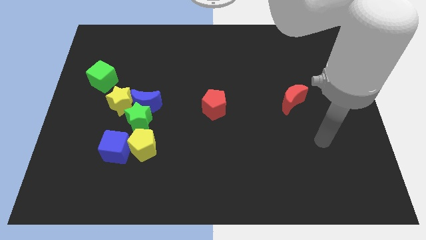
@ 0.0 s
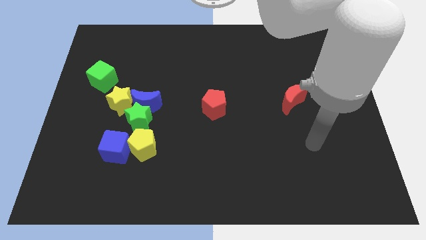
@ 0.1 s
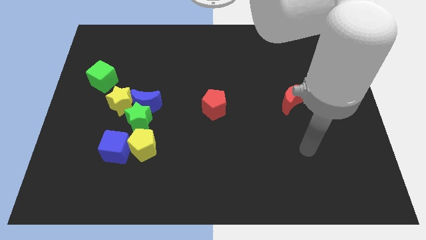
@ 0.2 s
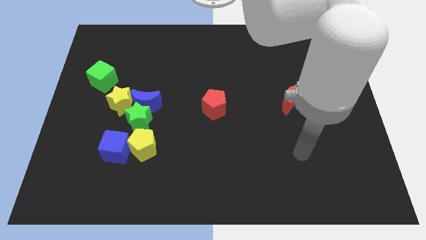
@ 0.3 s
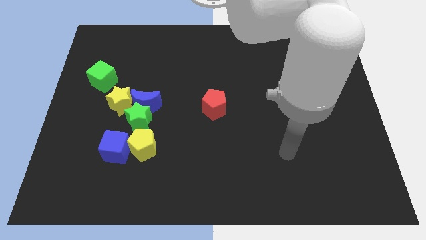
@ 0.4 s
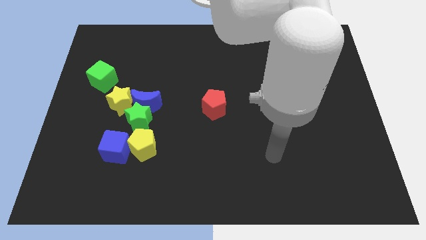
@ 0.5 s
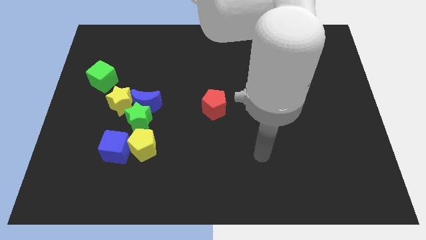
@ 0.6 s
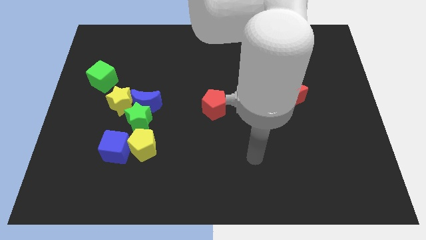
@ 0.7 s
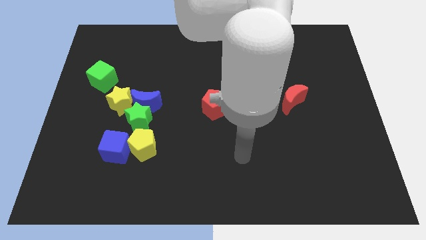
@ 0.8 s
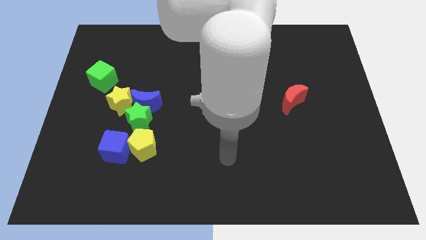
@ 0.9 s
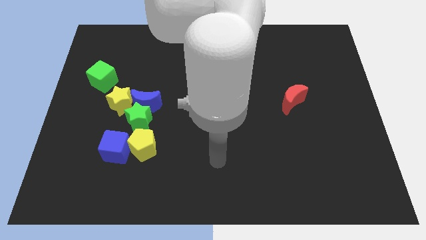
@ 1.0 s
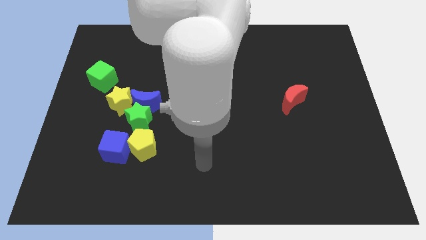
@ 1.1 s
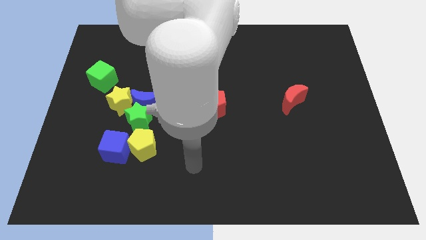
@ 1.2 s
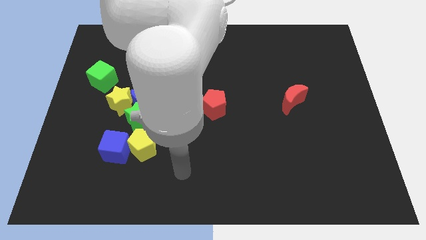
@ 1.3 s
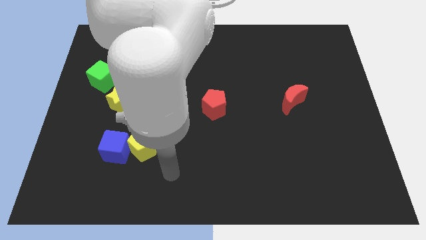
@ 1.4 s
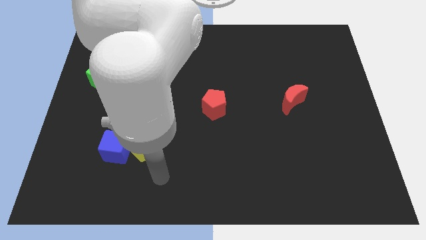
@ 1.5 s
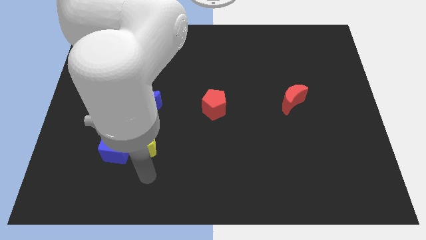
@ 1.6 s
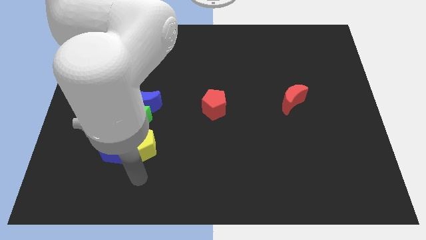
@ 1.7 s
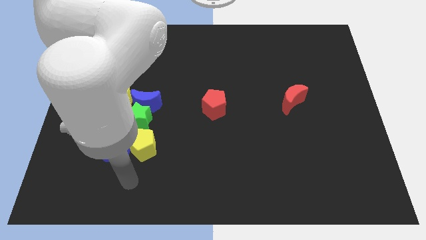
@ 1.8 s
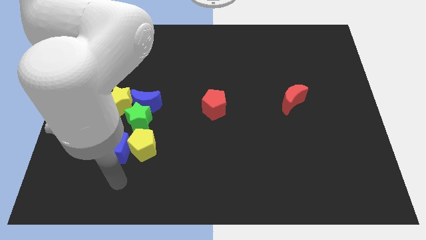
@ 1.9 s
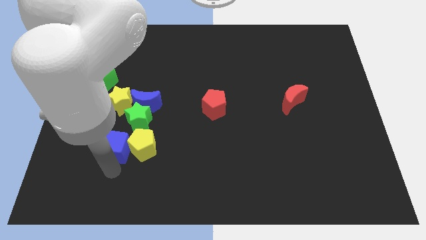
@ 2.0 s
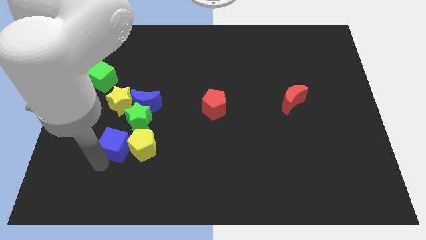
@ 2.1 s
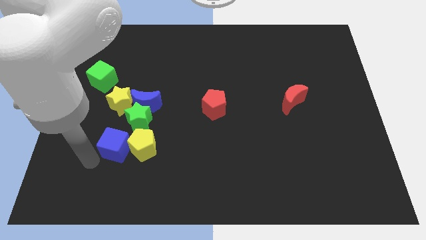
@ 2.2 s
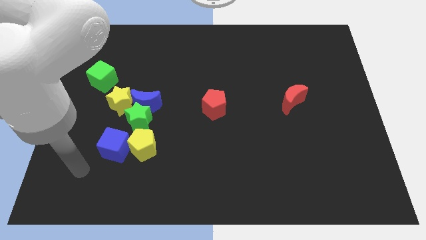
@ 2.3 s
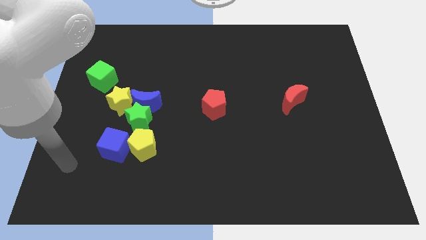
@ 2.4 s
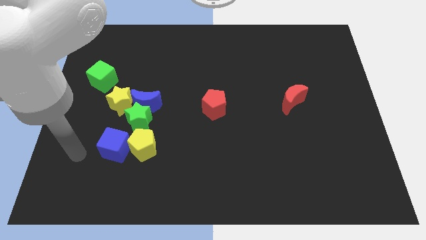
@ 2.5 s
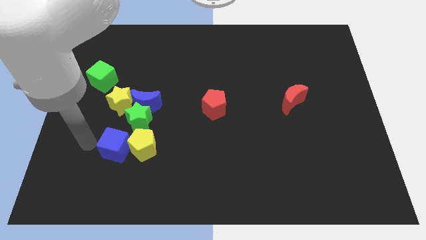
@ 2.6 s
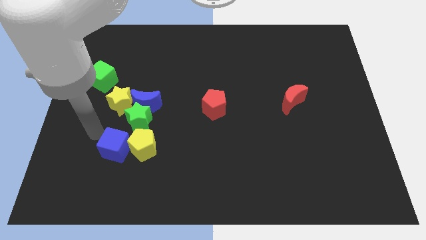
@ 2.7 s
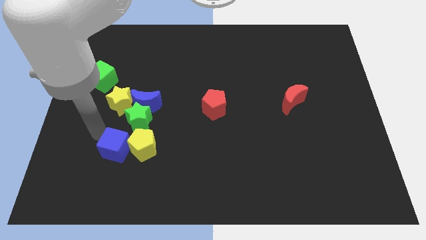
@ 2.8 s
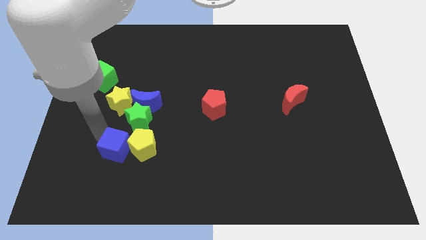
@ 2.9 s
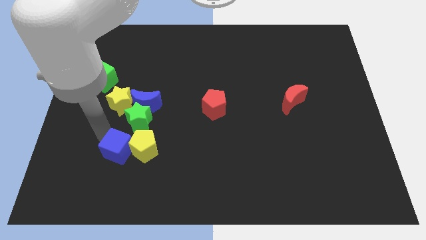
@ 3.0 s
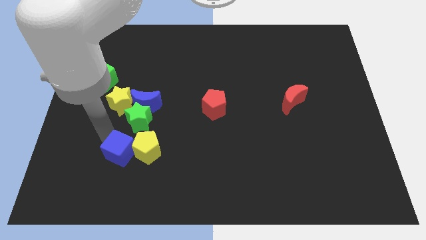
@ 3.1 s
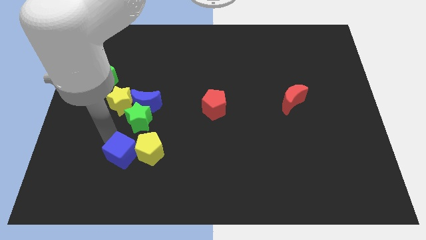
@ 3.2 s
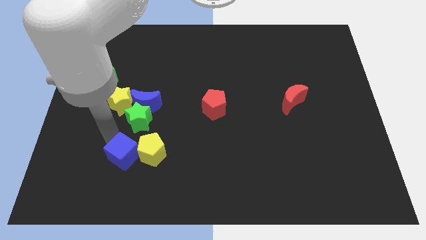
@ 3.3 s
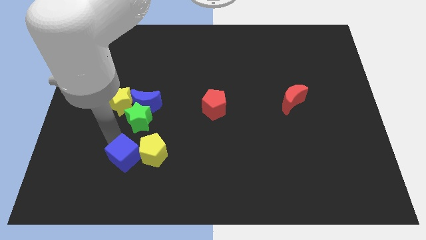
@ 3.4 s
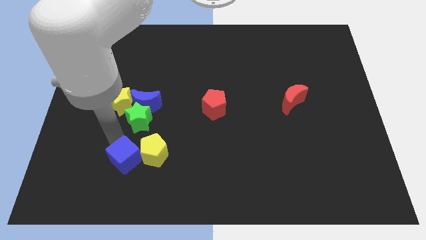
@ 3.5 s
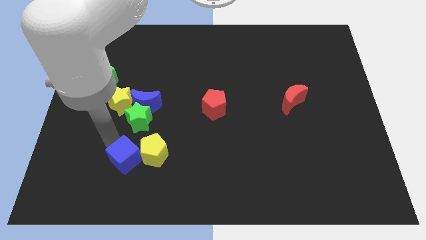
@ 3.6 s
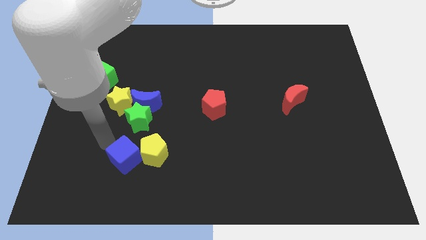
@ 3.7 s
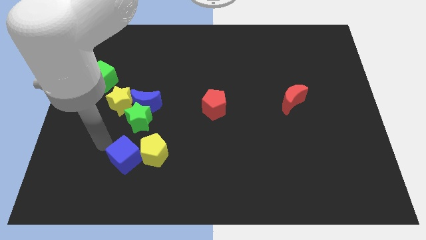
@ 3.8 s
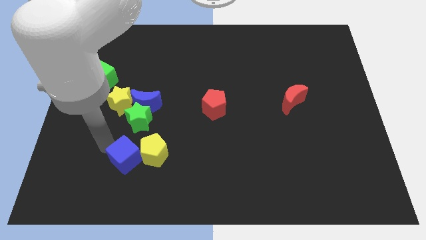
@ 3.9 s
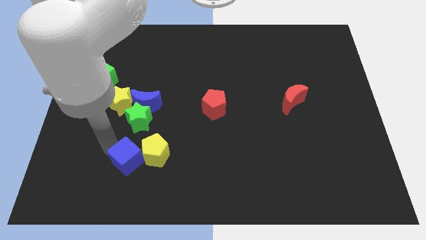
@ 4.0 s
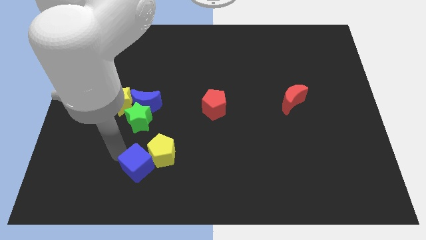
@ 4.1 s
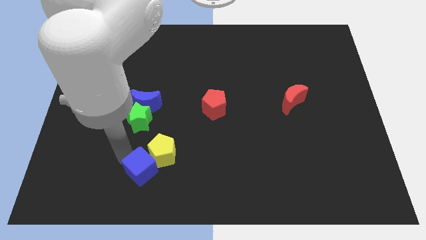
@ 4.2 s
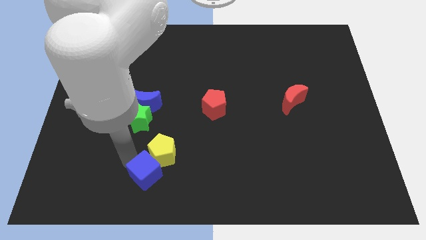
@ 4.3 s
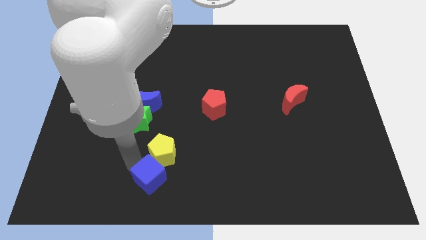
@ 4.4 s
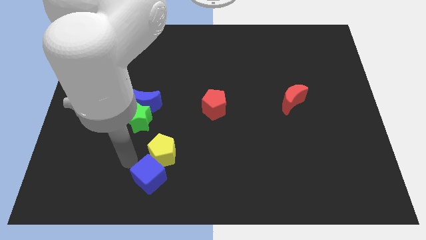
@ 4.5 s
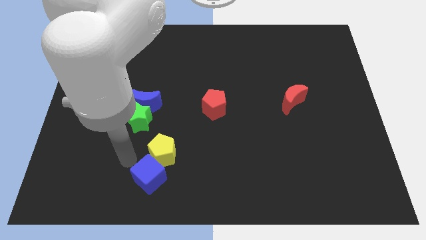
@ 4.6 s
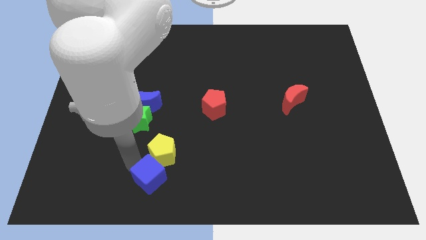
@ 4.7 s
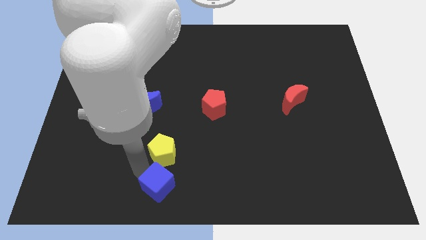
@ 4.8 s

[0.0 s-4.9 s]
push the blue cube to the bottom side

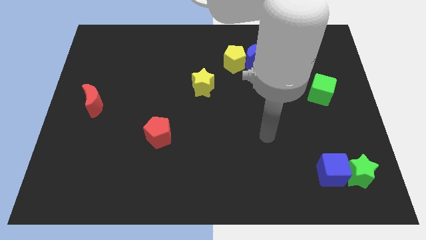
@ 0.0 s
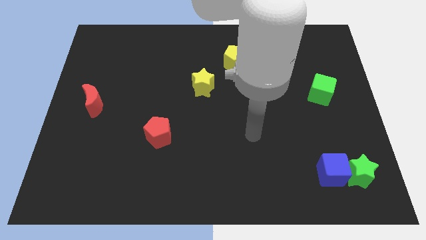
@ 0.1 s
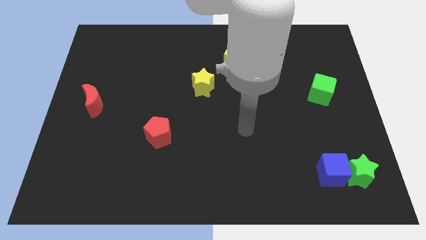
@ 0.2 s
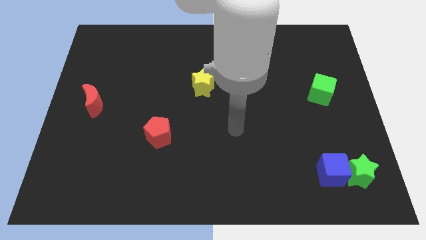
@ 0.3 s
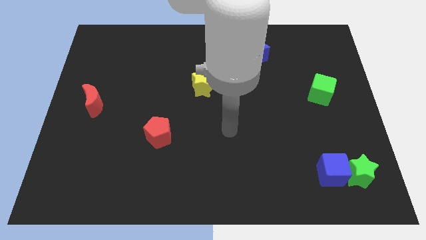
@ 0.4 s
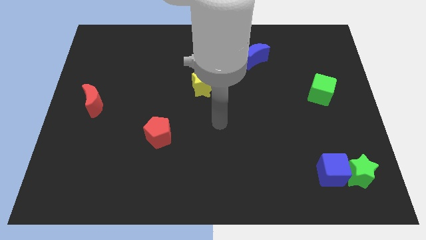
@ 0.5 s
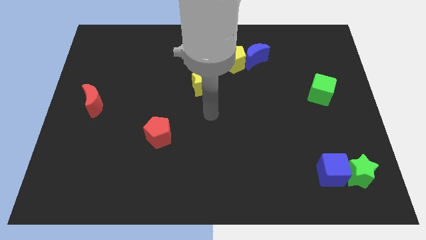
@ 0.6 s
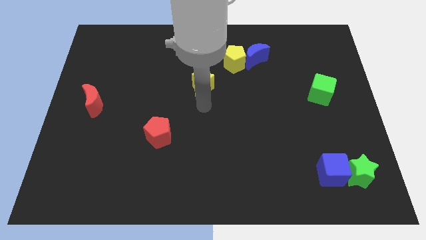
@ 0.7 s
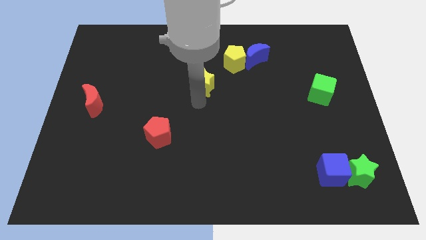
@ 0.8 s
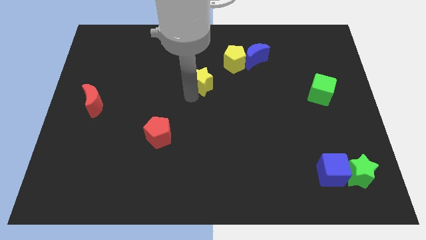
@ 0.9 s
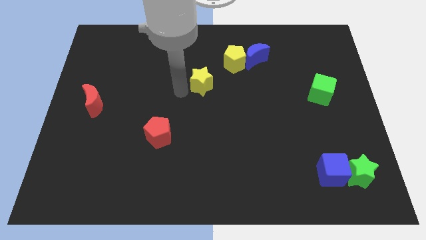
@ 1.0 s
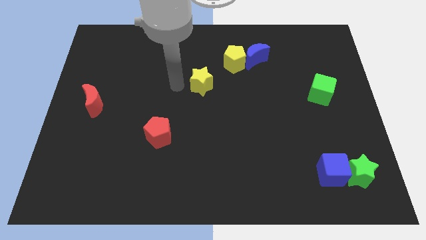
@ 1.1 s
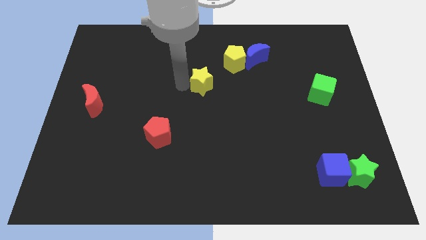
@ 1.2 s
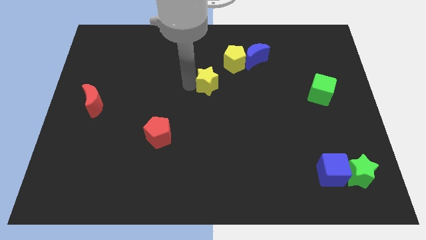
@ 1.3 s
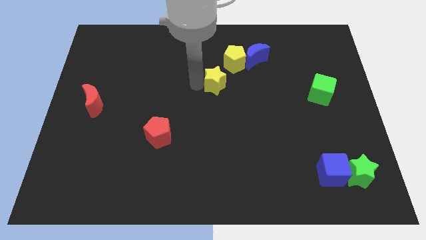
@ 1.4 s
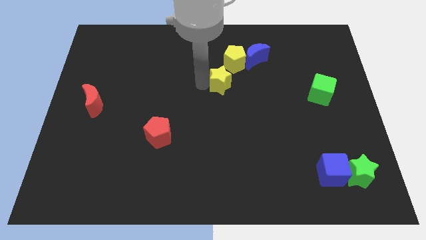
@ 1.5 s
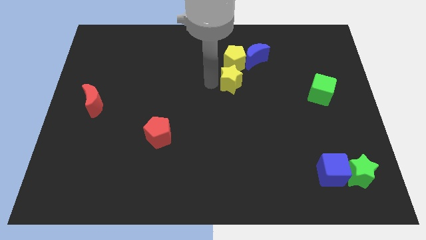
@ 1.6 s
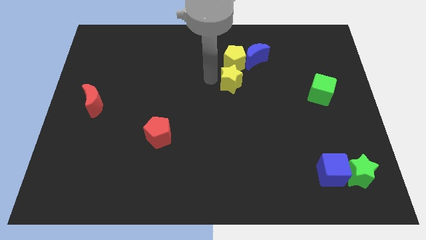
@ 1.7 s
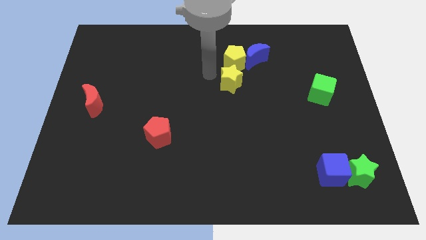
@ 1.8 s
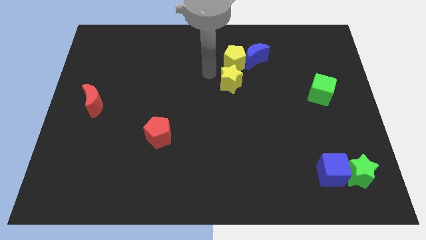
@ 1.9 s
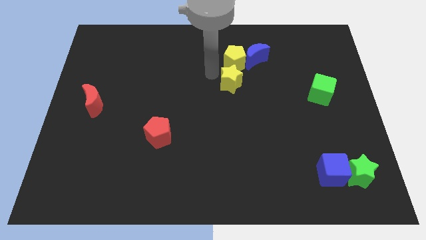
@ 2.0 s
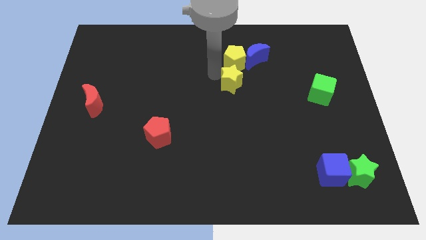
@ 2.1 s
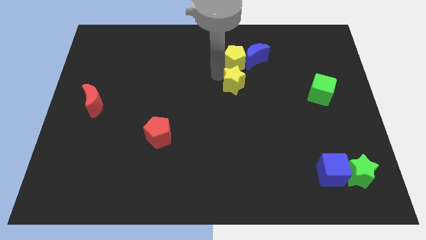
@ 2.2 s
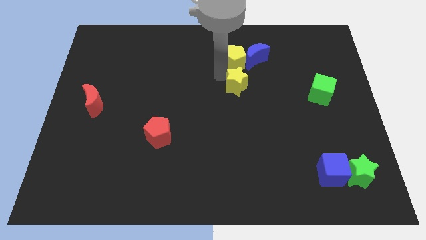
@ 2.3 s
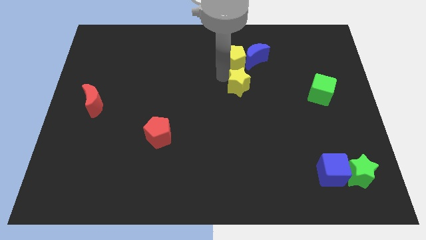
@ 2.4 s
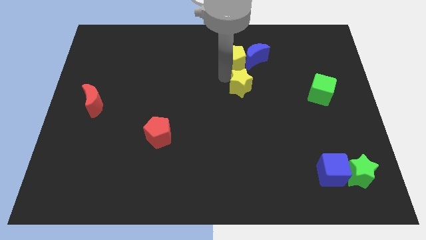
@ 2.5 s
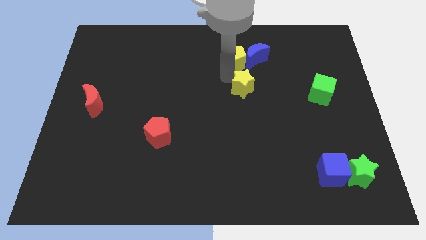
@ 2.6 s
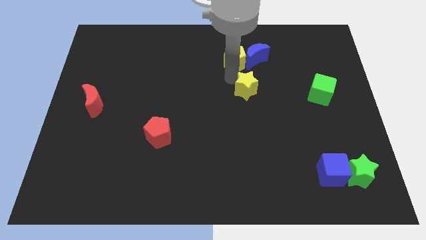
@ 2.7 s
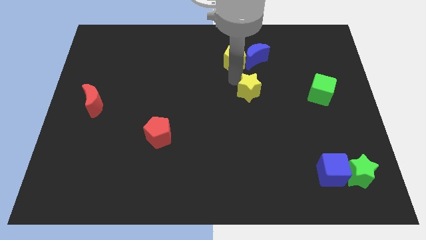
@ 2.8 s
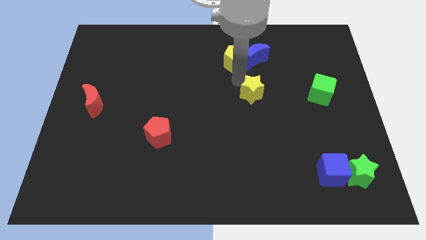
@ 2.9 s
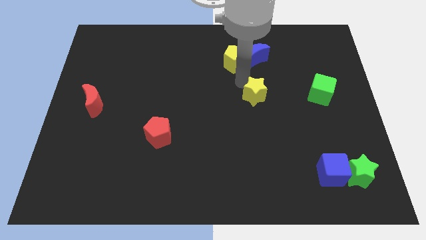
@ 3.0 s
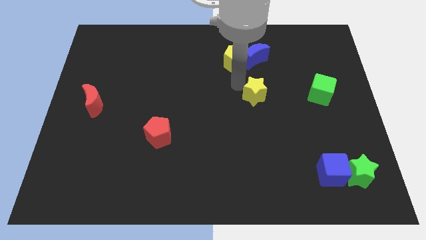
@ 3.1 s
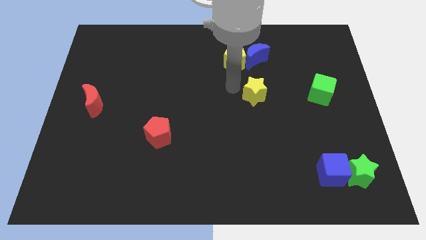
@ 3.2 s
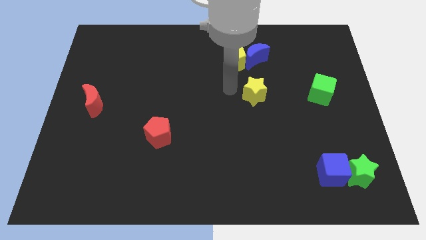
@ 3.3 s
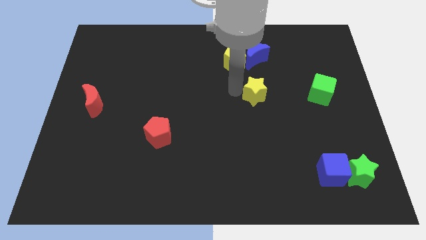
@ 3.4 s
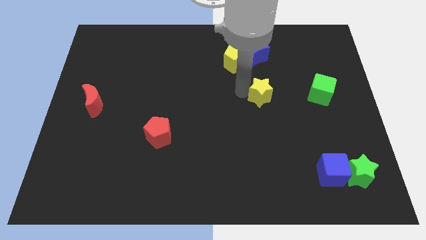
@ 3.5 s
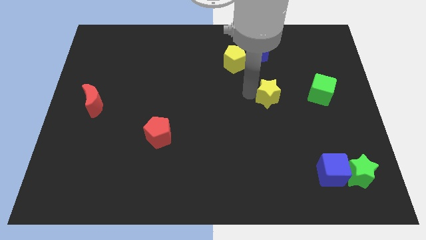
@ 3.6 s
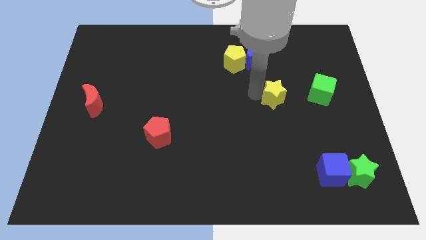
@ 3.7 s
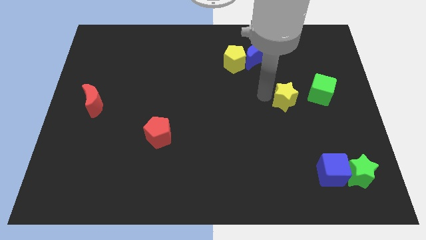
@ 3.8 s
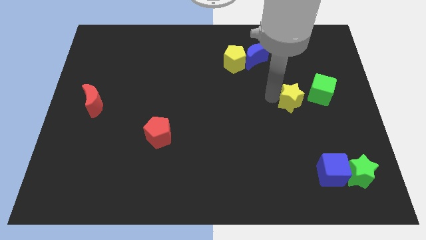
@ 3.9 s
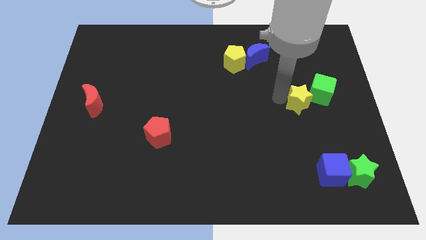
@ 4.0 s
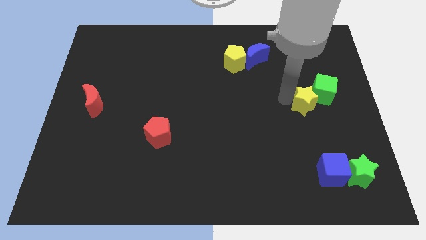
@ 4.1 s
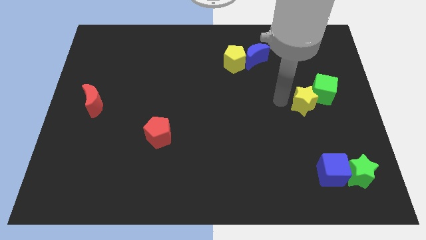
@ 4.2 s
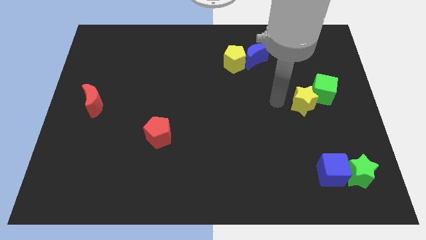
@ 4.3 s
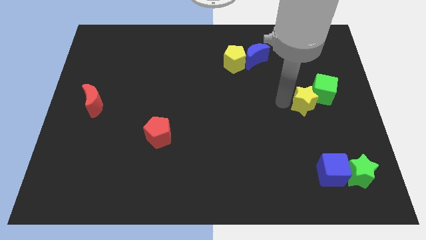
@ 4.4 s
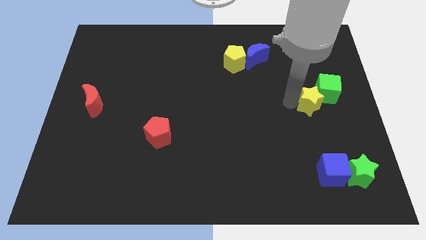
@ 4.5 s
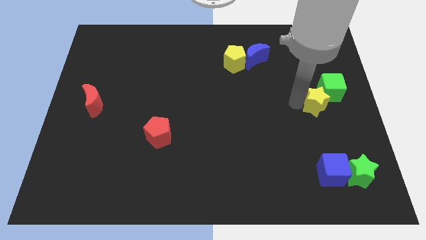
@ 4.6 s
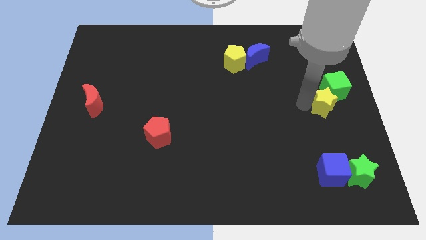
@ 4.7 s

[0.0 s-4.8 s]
push the yellow star to the center right
